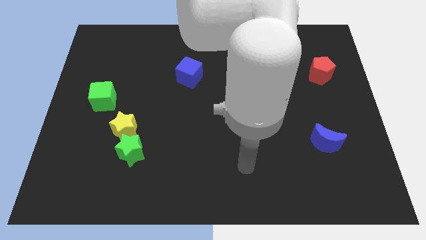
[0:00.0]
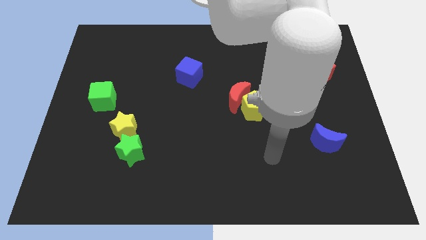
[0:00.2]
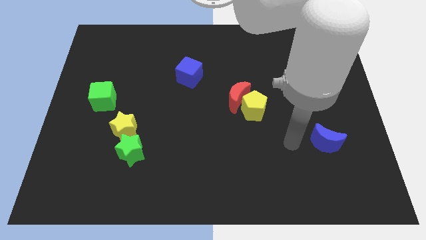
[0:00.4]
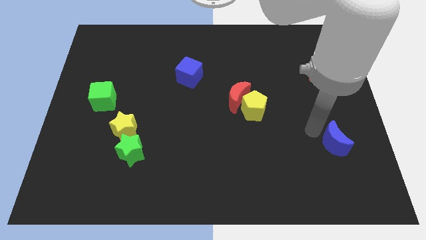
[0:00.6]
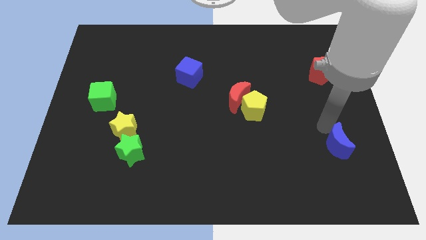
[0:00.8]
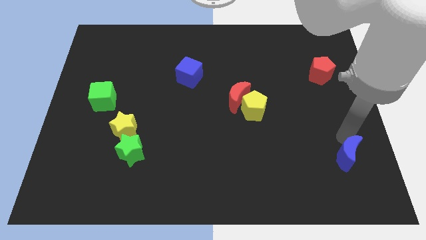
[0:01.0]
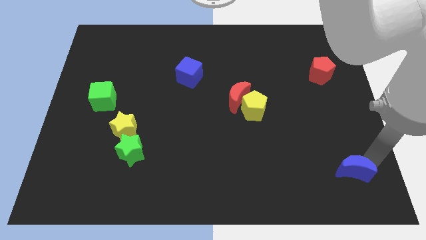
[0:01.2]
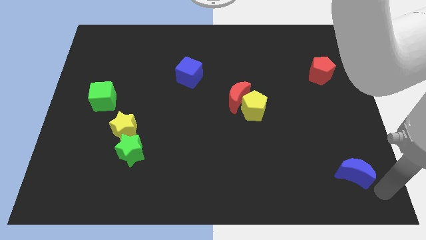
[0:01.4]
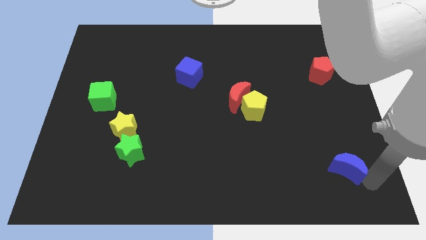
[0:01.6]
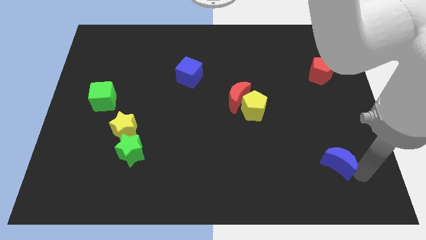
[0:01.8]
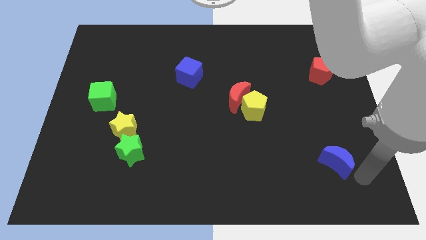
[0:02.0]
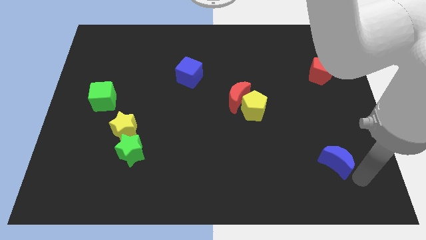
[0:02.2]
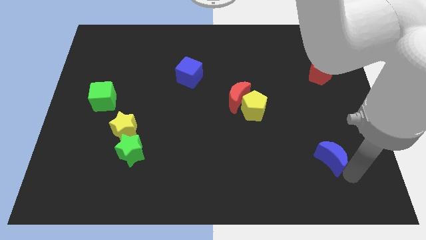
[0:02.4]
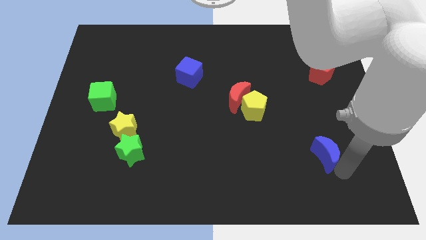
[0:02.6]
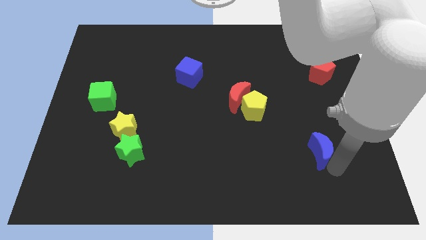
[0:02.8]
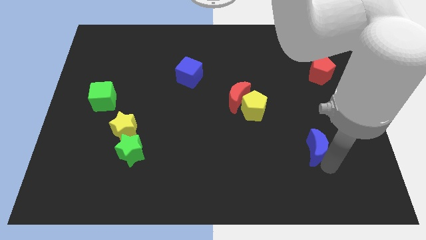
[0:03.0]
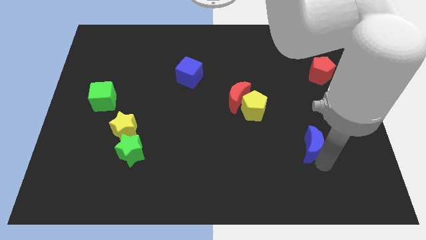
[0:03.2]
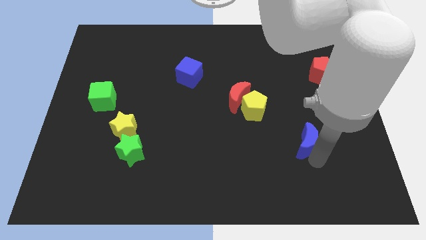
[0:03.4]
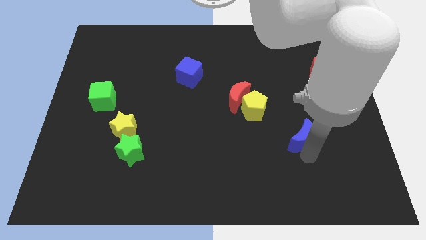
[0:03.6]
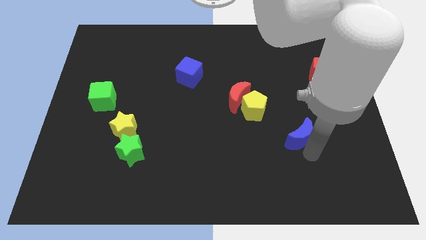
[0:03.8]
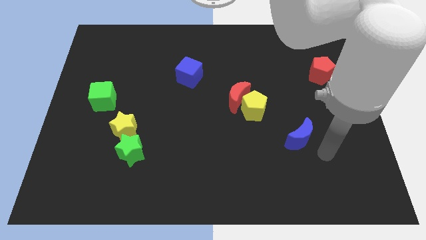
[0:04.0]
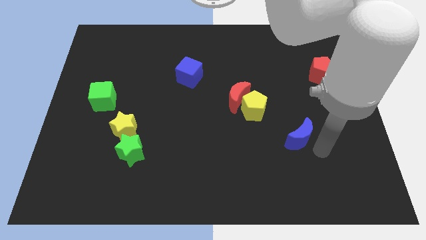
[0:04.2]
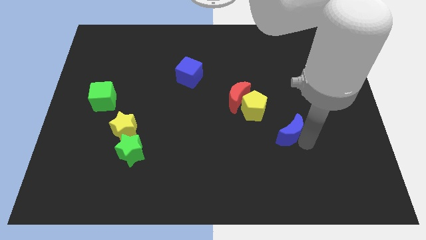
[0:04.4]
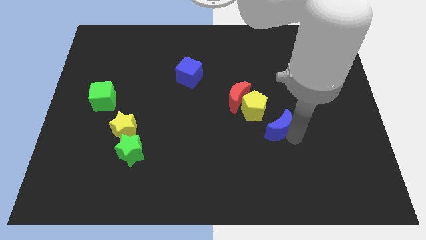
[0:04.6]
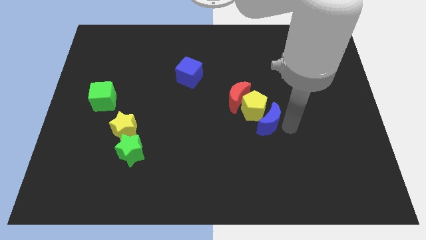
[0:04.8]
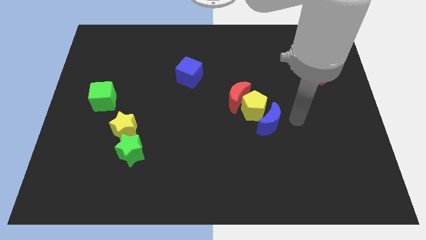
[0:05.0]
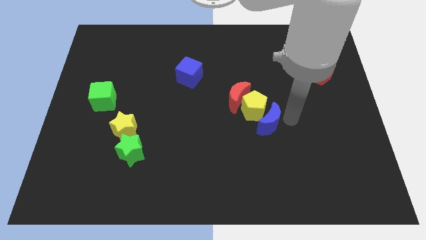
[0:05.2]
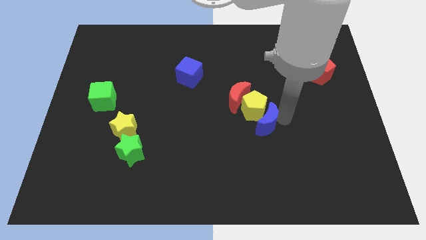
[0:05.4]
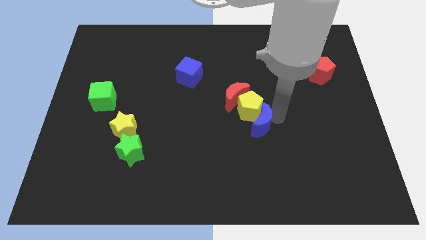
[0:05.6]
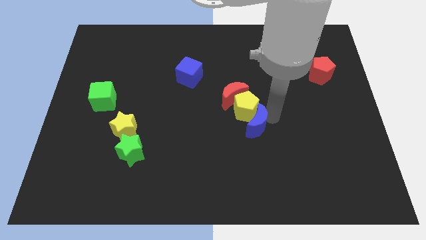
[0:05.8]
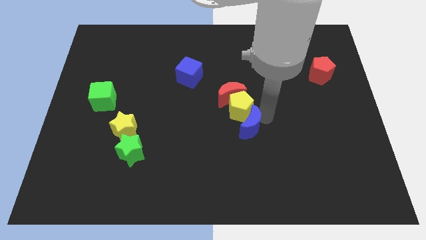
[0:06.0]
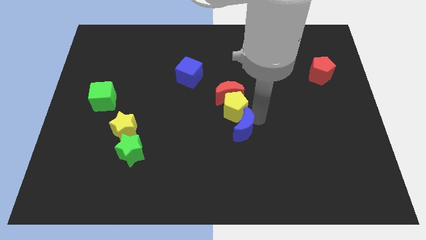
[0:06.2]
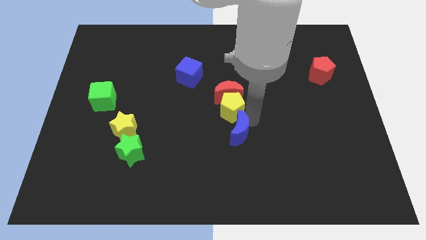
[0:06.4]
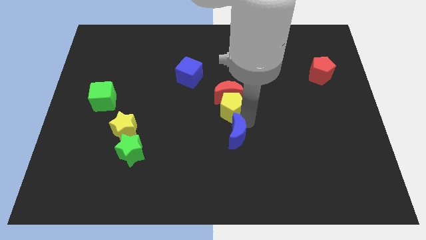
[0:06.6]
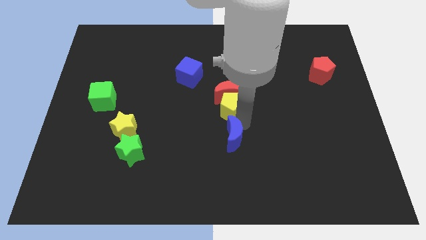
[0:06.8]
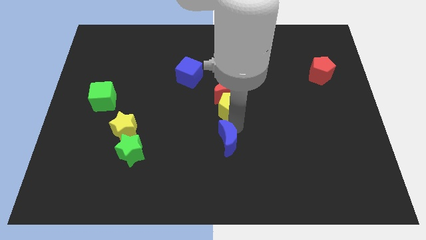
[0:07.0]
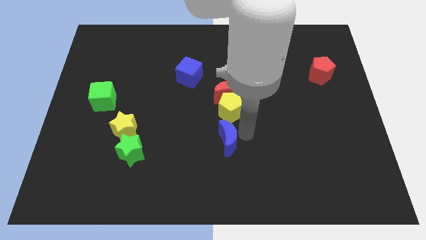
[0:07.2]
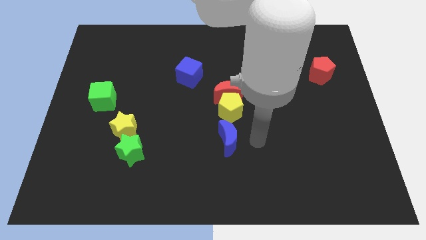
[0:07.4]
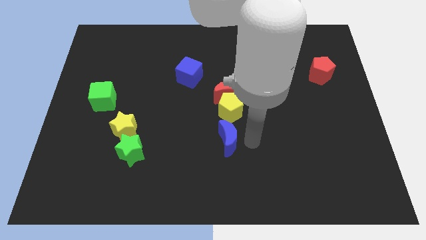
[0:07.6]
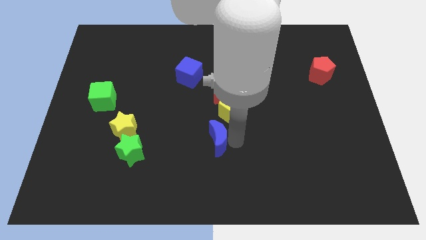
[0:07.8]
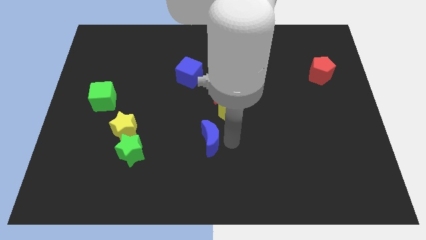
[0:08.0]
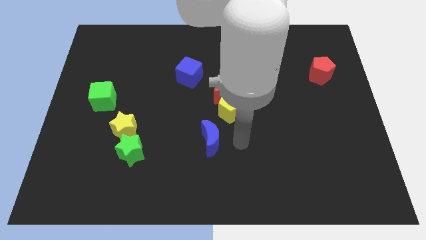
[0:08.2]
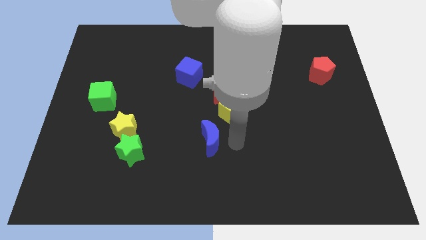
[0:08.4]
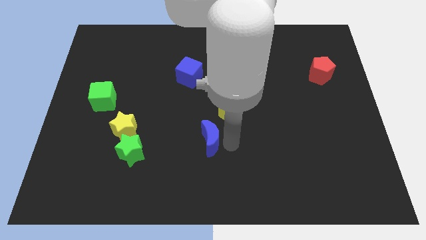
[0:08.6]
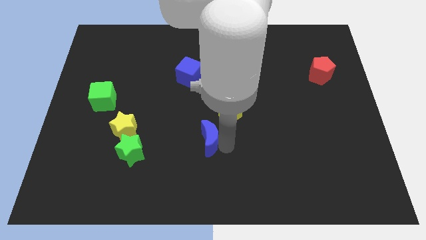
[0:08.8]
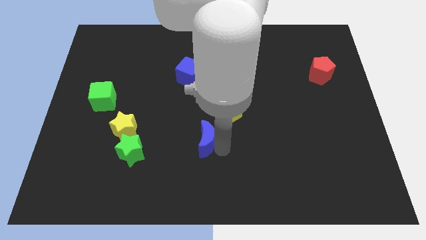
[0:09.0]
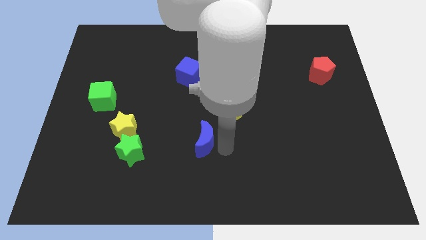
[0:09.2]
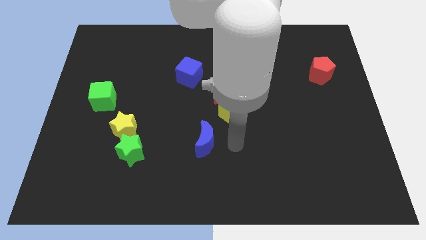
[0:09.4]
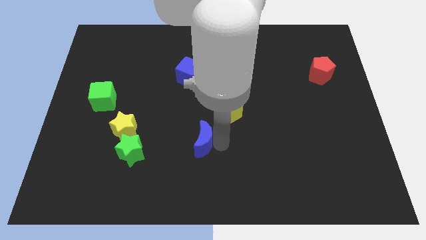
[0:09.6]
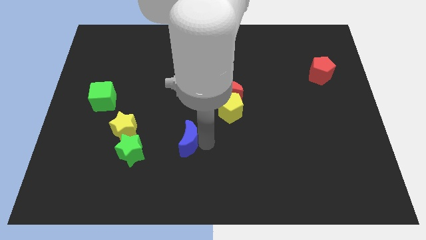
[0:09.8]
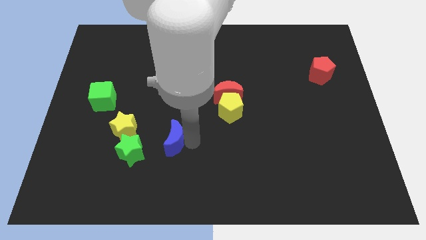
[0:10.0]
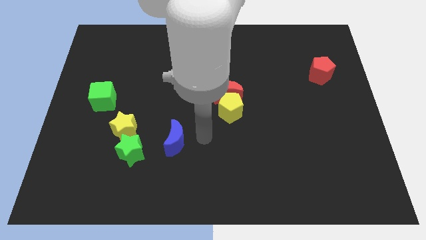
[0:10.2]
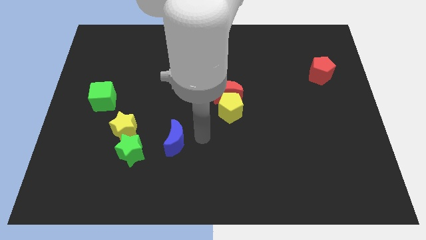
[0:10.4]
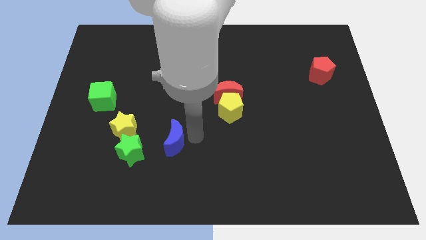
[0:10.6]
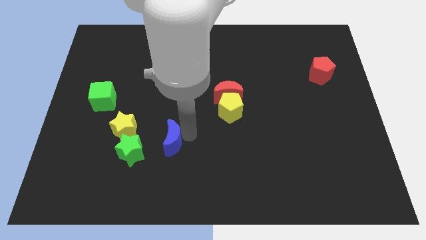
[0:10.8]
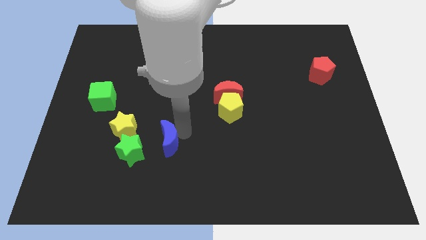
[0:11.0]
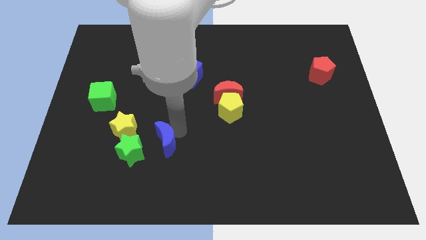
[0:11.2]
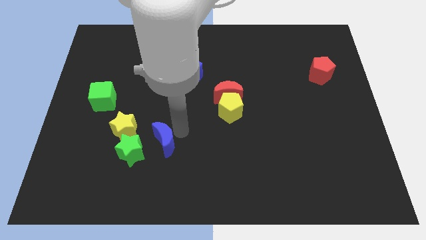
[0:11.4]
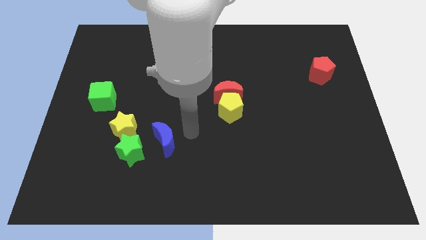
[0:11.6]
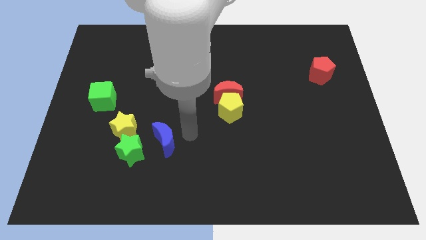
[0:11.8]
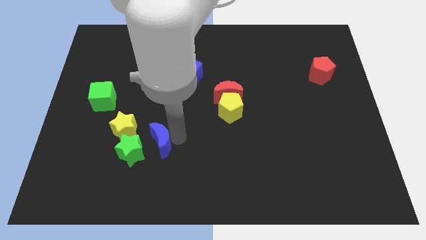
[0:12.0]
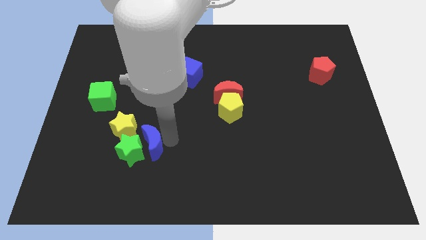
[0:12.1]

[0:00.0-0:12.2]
push the blue moon next to the green star
